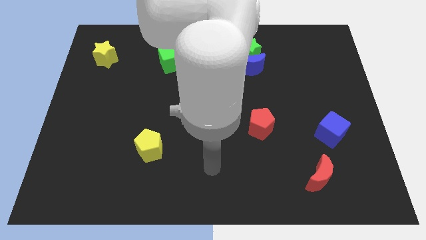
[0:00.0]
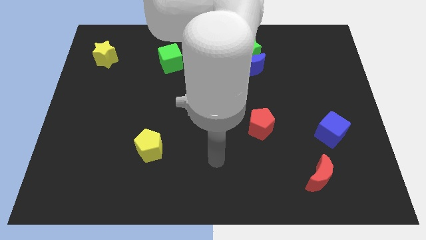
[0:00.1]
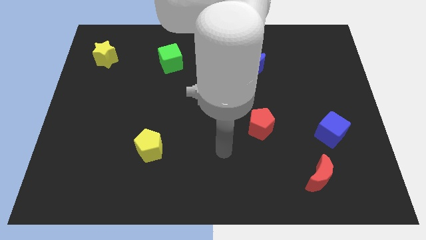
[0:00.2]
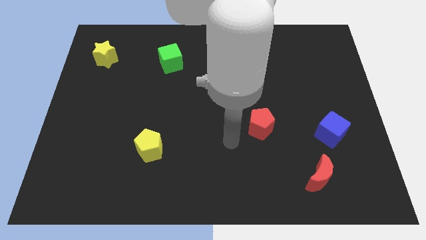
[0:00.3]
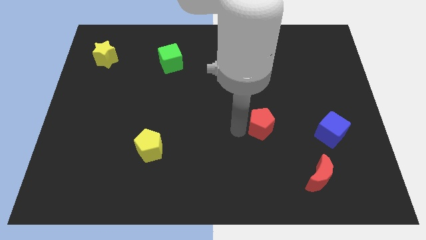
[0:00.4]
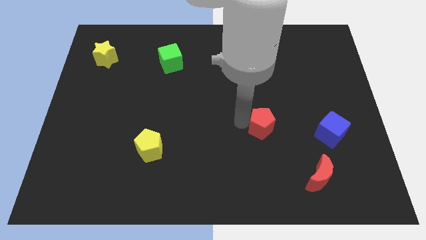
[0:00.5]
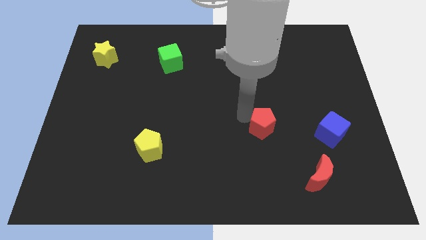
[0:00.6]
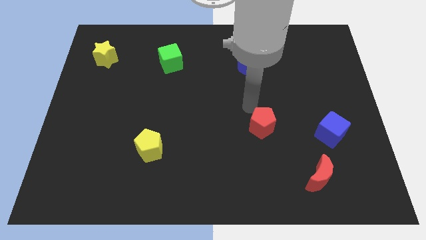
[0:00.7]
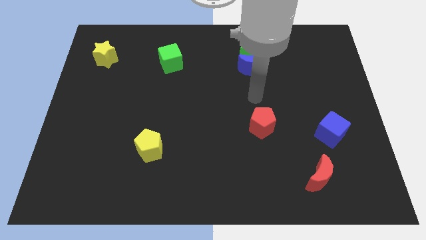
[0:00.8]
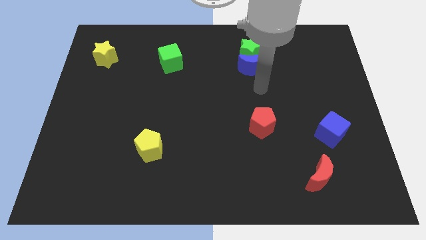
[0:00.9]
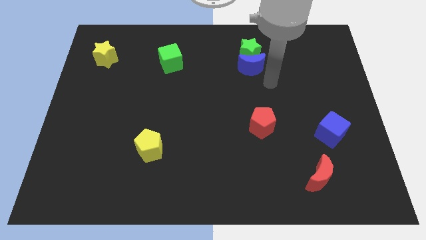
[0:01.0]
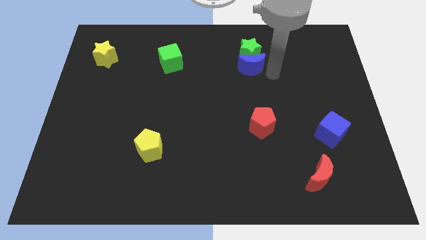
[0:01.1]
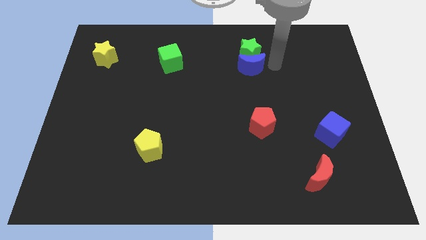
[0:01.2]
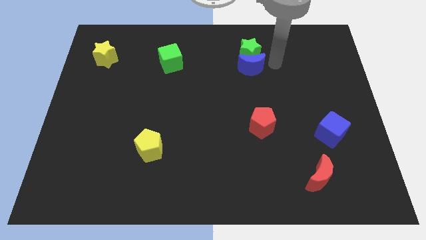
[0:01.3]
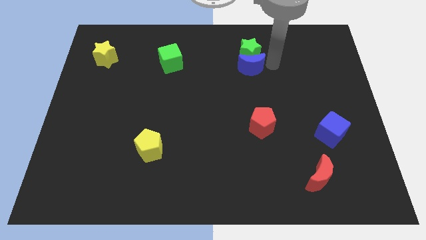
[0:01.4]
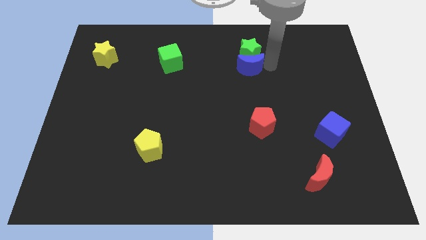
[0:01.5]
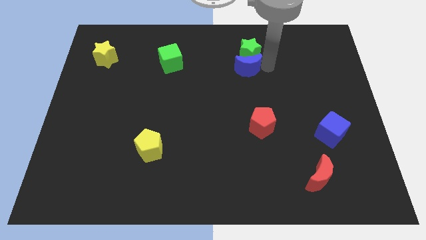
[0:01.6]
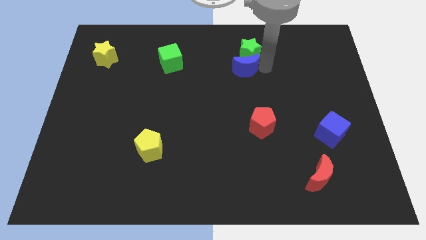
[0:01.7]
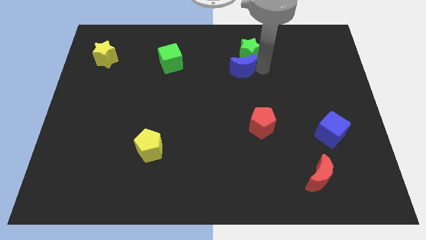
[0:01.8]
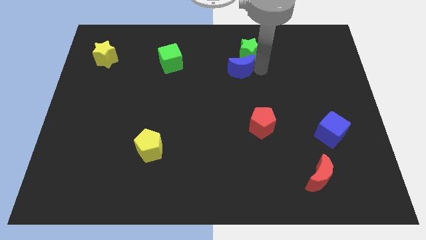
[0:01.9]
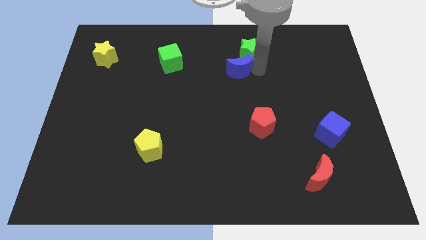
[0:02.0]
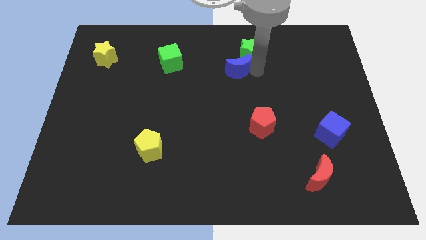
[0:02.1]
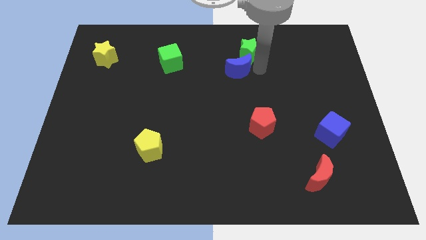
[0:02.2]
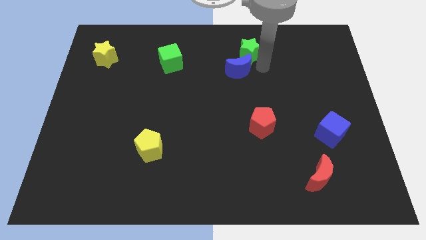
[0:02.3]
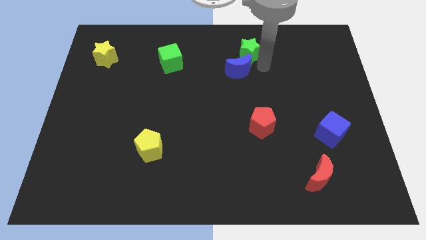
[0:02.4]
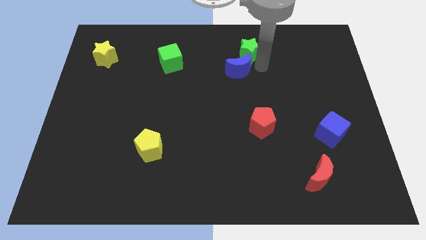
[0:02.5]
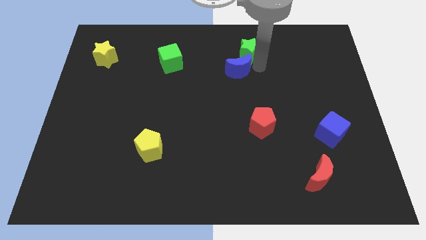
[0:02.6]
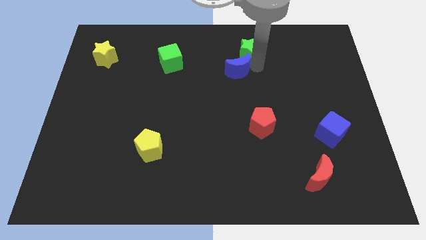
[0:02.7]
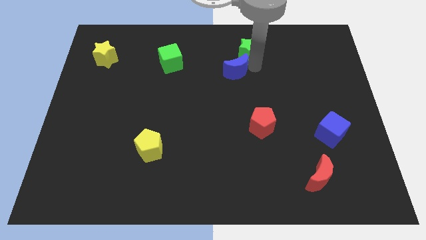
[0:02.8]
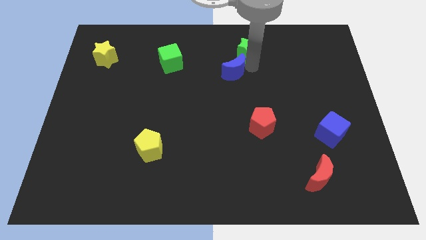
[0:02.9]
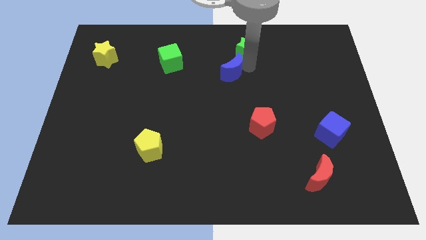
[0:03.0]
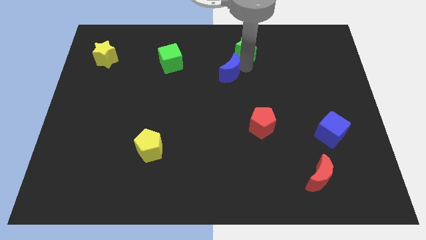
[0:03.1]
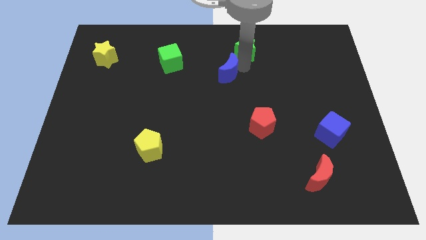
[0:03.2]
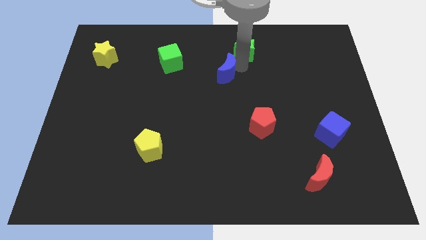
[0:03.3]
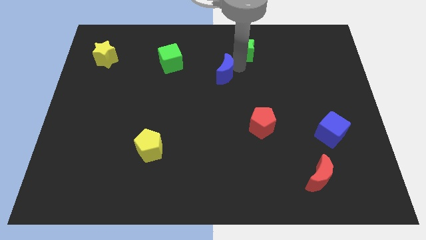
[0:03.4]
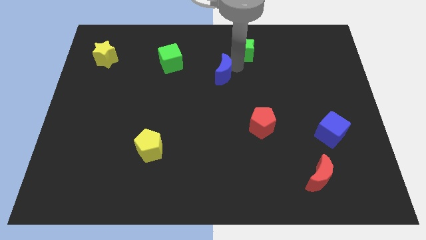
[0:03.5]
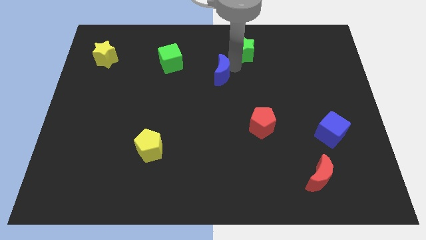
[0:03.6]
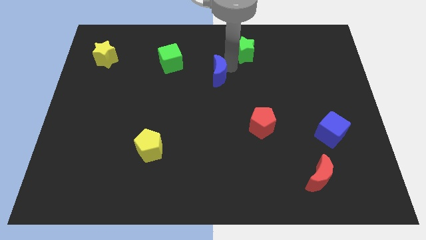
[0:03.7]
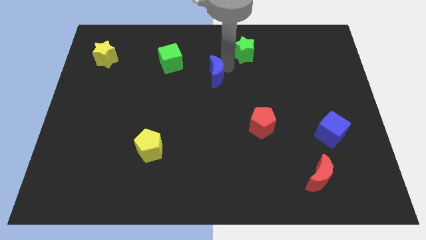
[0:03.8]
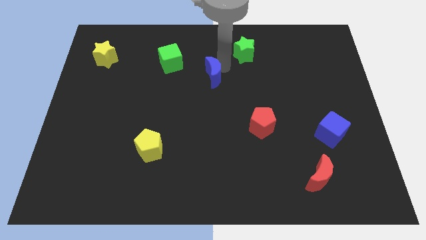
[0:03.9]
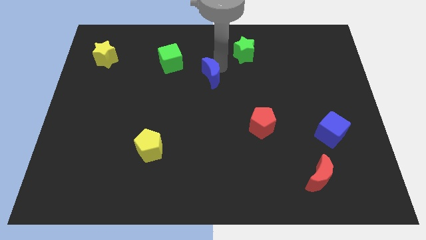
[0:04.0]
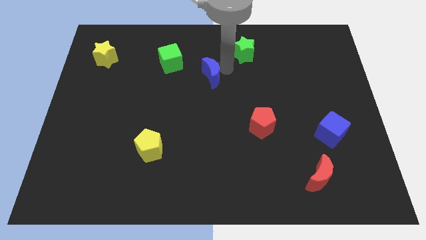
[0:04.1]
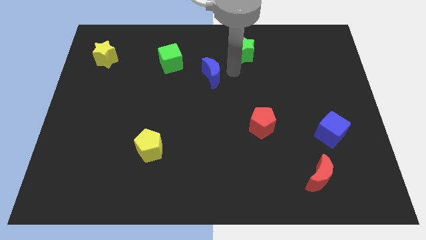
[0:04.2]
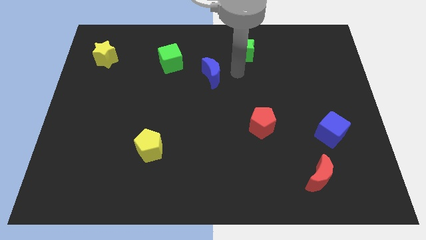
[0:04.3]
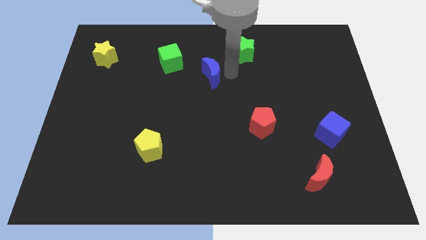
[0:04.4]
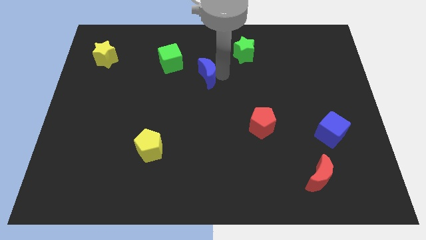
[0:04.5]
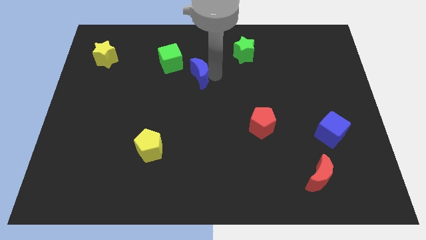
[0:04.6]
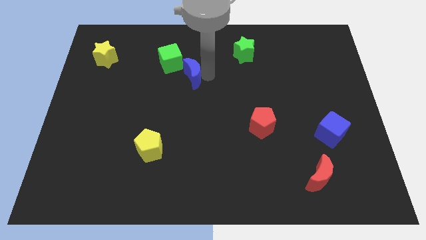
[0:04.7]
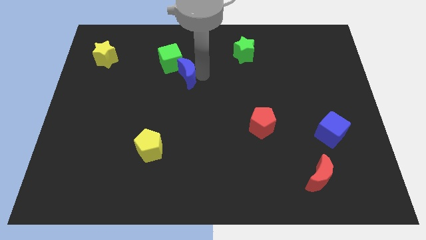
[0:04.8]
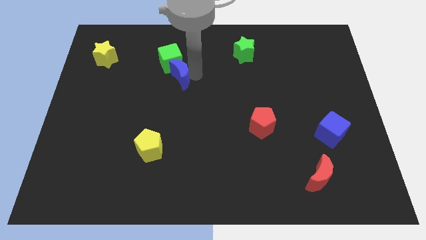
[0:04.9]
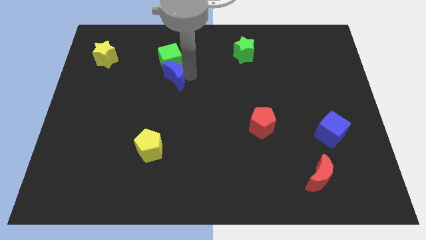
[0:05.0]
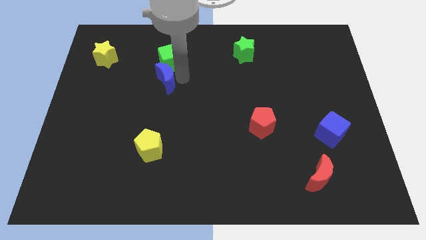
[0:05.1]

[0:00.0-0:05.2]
push the blue moon to the left

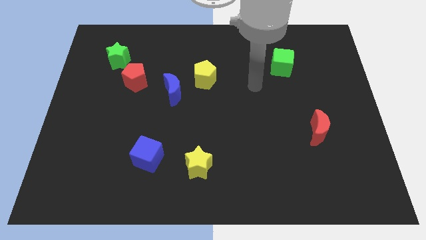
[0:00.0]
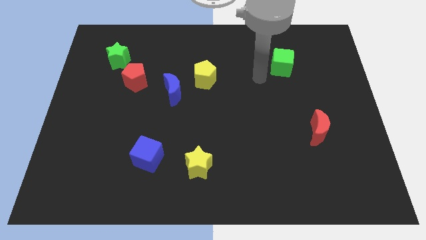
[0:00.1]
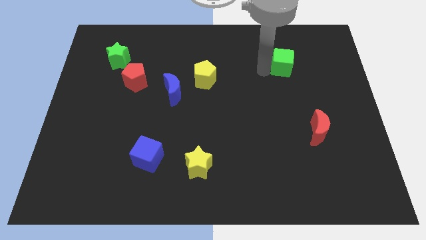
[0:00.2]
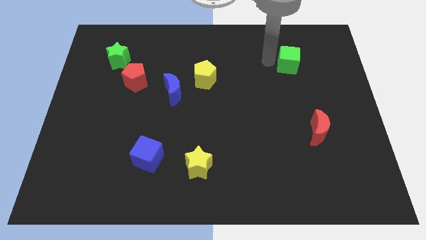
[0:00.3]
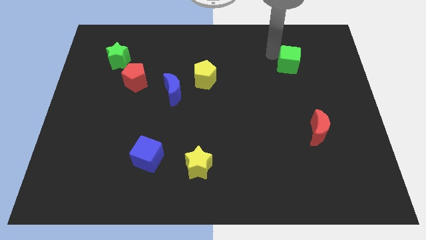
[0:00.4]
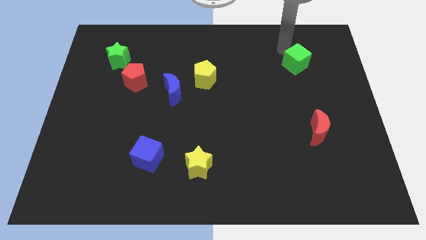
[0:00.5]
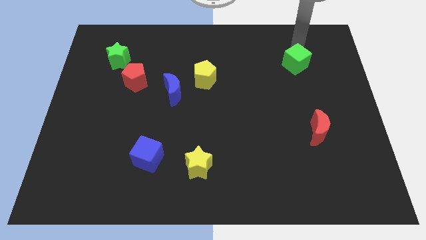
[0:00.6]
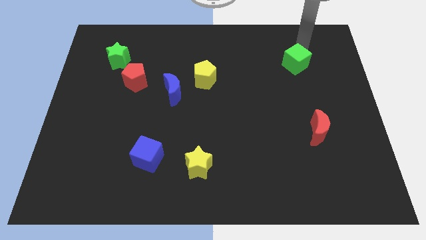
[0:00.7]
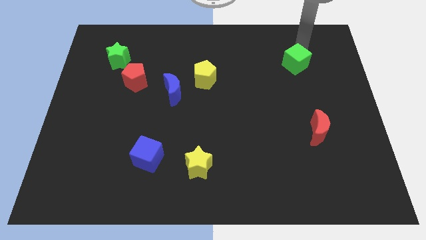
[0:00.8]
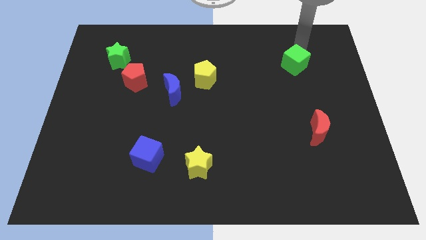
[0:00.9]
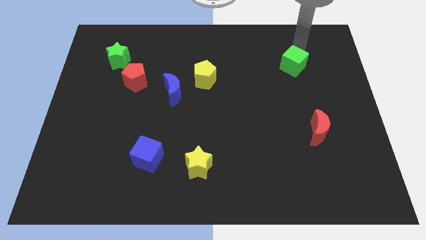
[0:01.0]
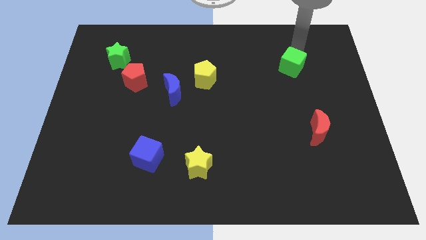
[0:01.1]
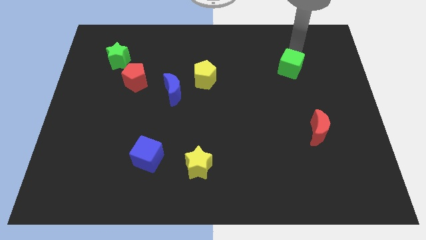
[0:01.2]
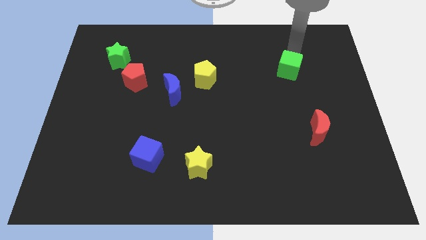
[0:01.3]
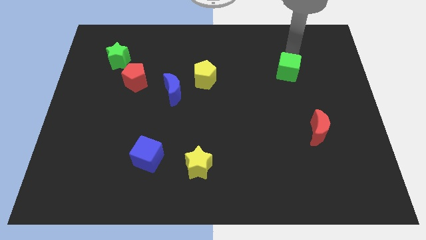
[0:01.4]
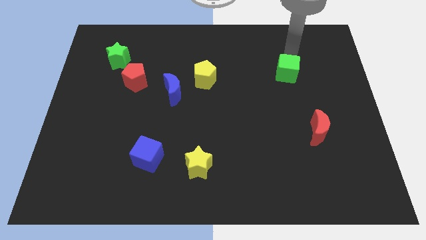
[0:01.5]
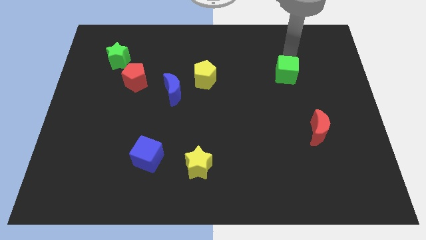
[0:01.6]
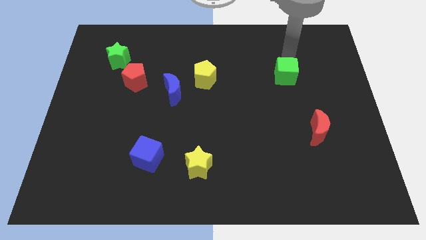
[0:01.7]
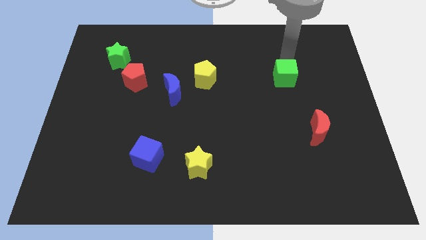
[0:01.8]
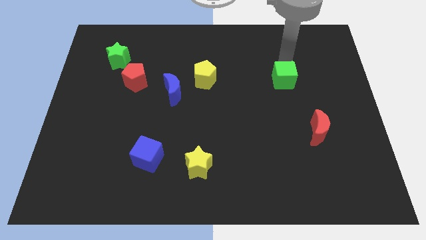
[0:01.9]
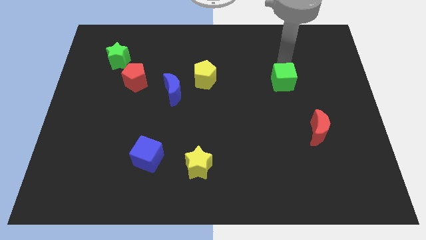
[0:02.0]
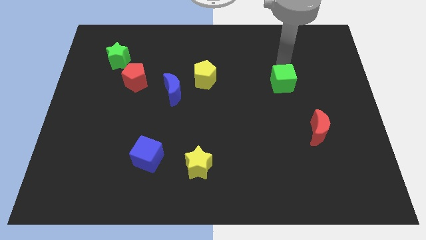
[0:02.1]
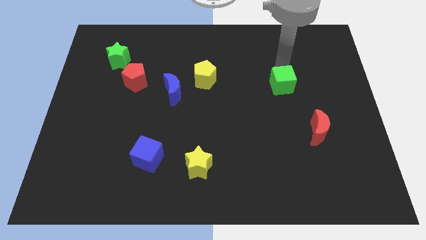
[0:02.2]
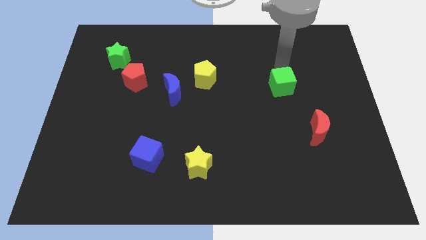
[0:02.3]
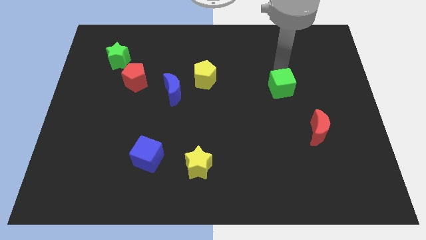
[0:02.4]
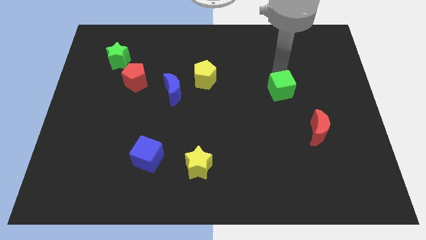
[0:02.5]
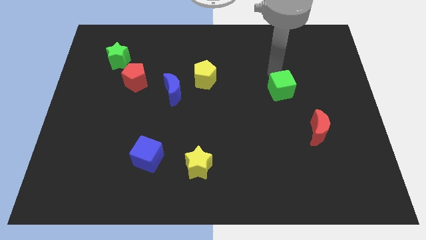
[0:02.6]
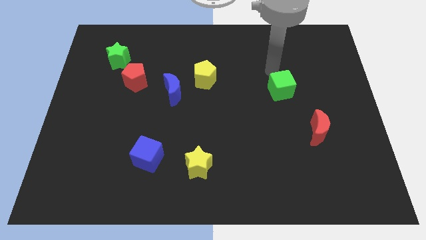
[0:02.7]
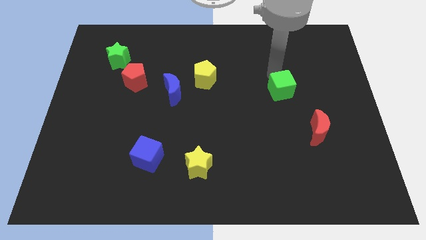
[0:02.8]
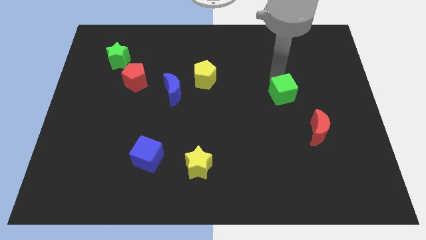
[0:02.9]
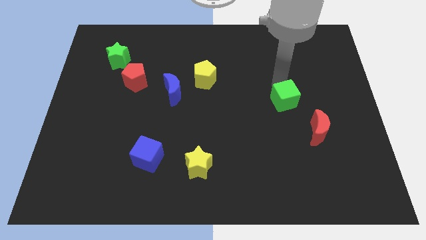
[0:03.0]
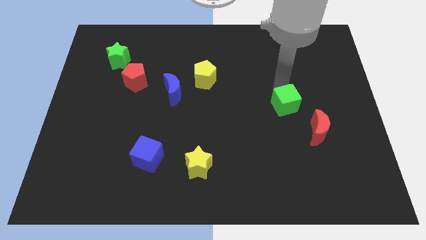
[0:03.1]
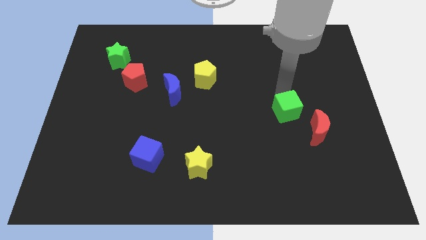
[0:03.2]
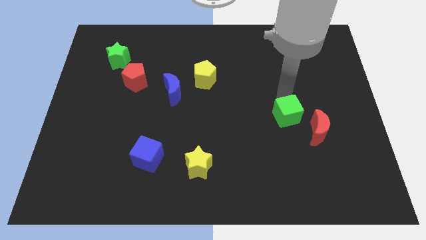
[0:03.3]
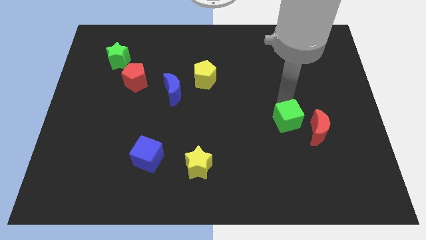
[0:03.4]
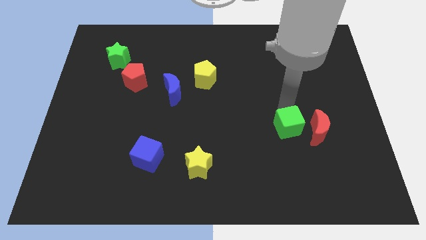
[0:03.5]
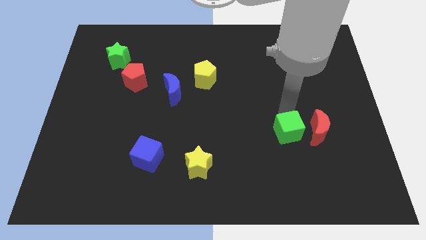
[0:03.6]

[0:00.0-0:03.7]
push the green cube downwards
